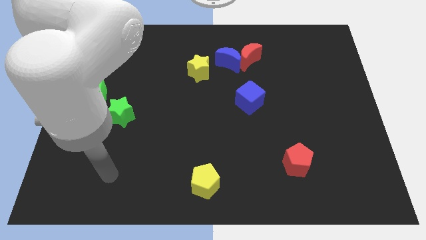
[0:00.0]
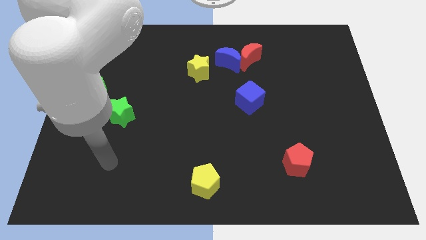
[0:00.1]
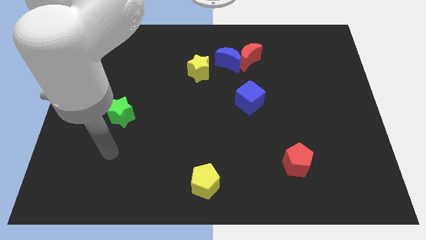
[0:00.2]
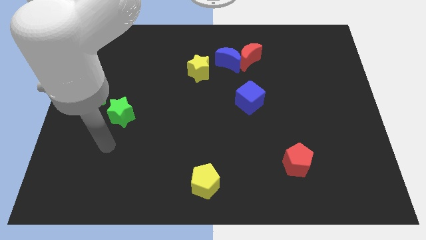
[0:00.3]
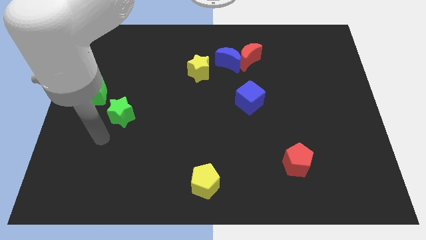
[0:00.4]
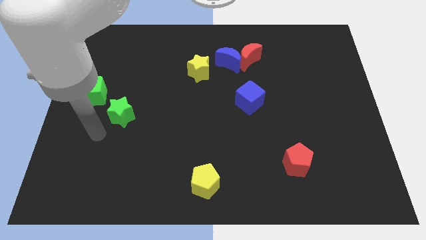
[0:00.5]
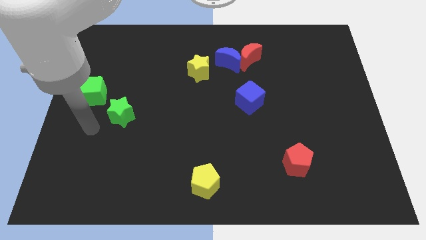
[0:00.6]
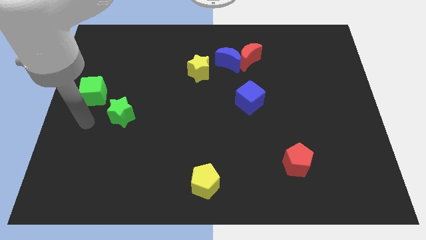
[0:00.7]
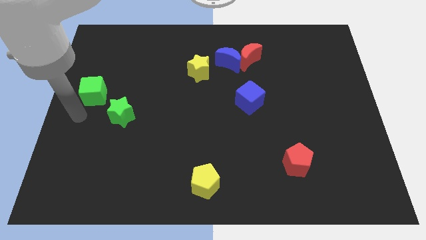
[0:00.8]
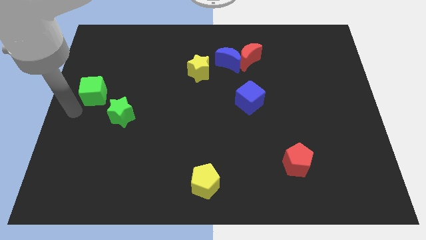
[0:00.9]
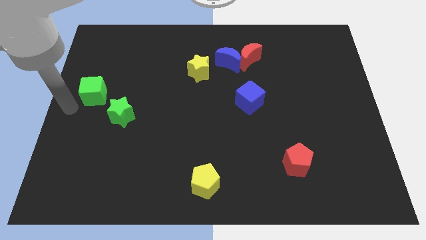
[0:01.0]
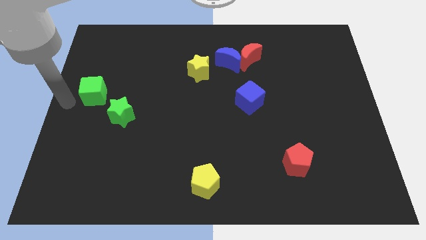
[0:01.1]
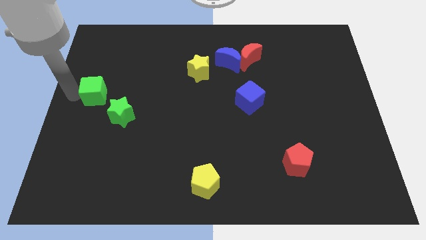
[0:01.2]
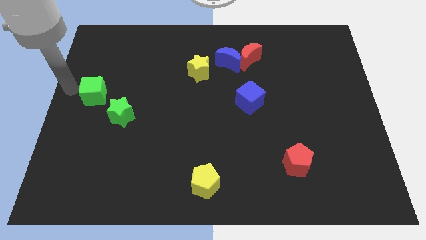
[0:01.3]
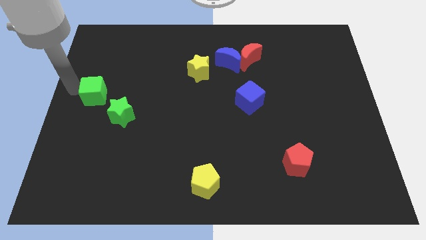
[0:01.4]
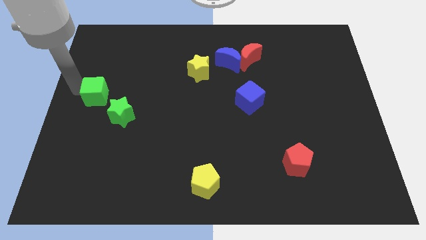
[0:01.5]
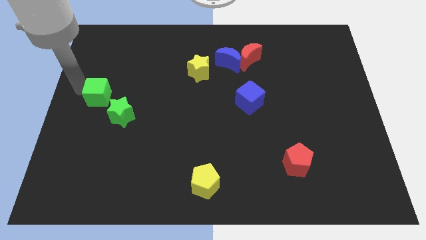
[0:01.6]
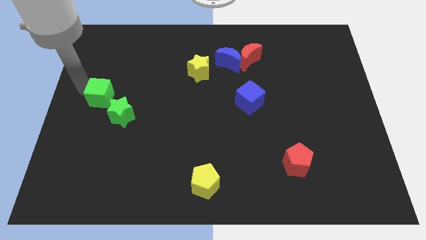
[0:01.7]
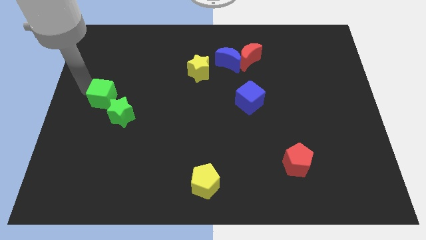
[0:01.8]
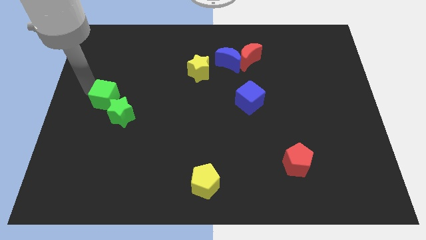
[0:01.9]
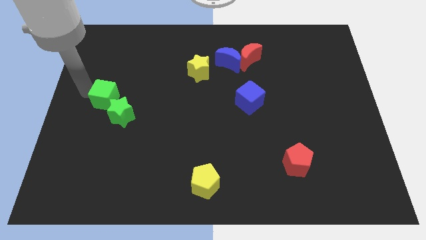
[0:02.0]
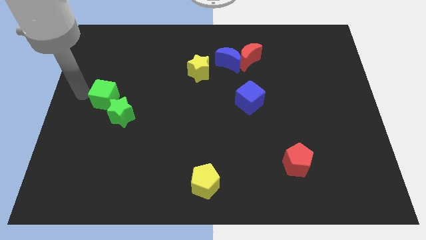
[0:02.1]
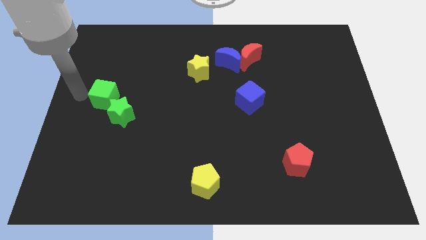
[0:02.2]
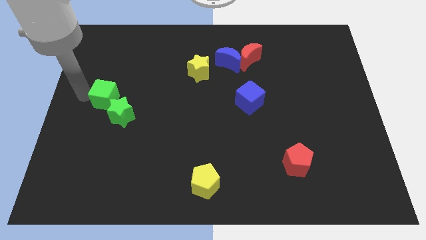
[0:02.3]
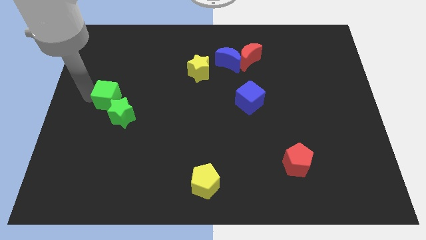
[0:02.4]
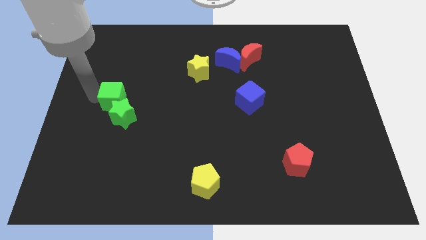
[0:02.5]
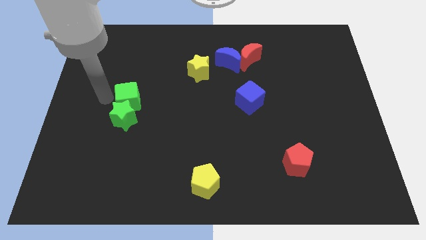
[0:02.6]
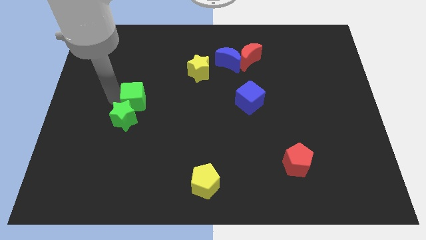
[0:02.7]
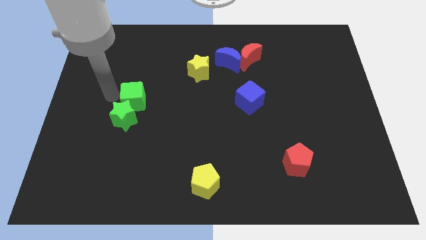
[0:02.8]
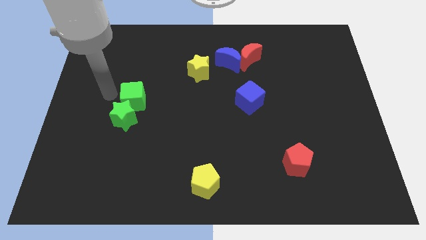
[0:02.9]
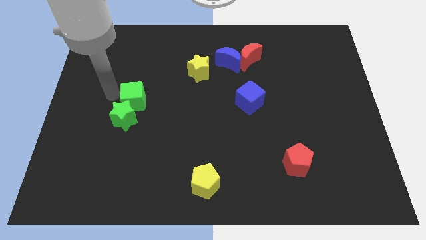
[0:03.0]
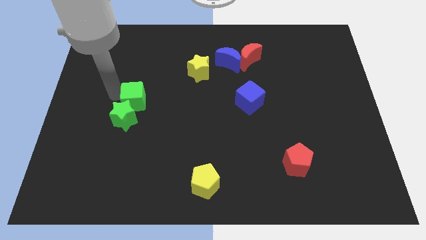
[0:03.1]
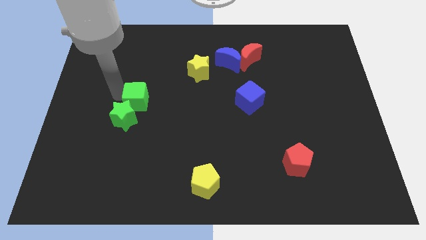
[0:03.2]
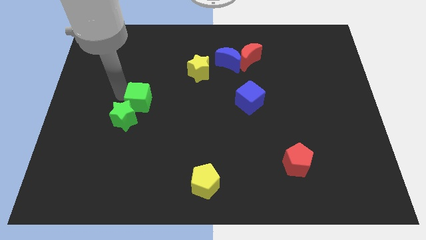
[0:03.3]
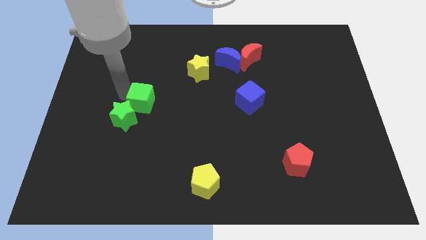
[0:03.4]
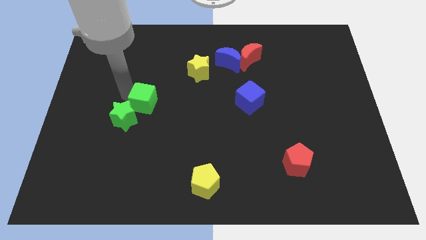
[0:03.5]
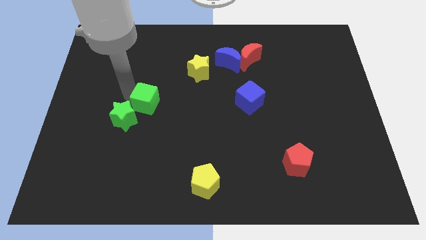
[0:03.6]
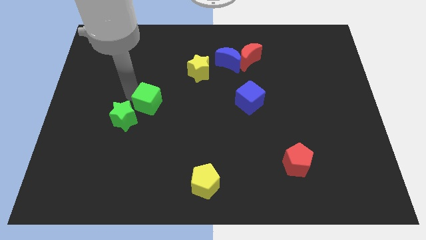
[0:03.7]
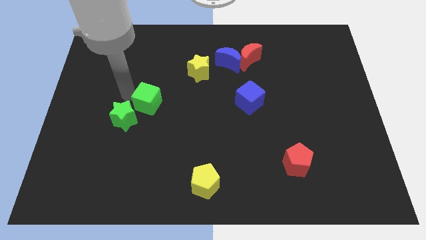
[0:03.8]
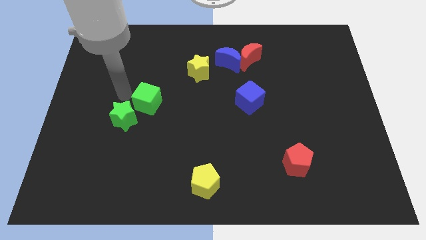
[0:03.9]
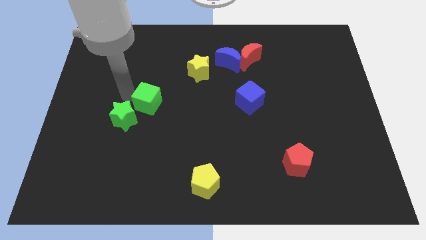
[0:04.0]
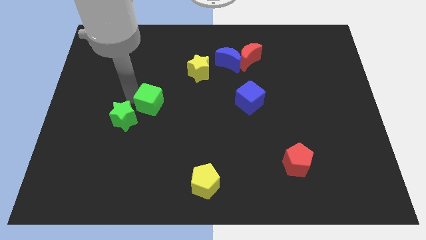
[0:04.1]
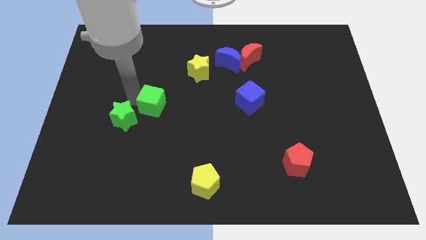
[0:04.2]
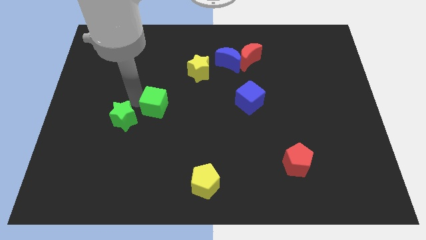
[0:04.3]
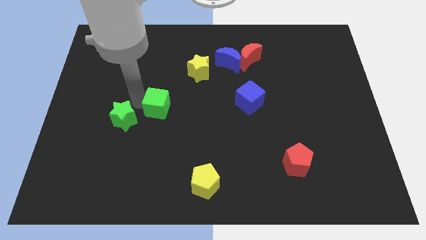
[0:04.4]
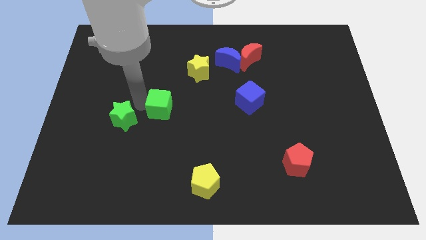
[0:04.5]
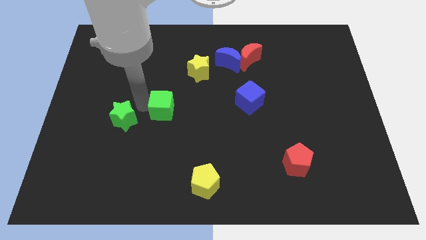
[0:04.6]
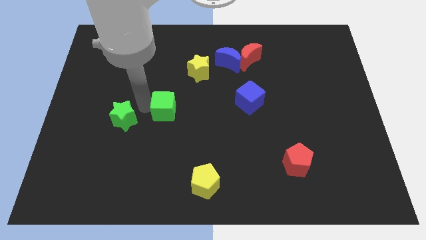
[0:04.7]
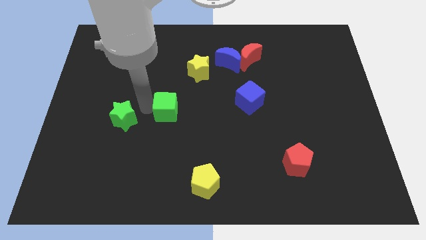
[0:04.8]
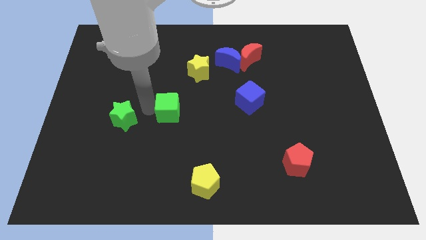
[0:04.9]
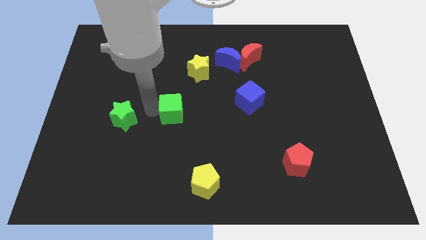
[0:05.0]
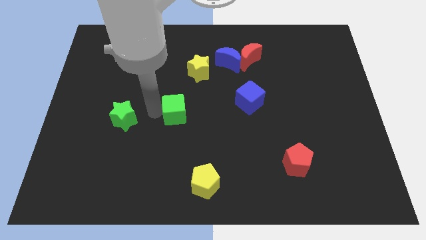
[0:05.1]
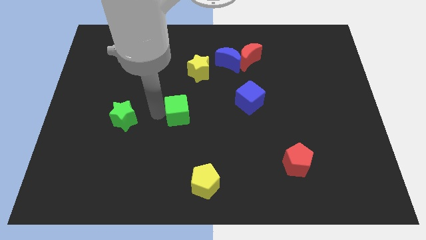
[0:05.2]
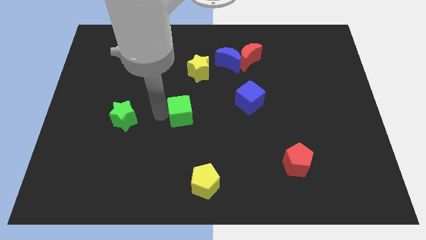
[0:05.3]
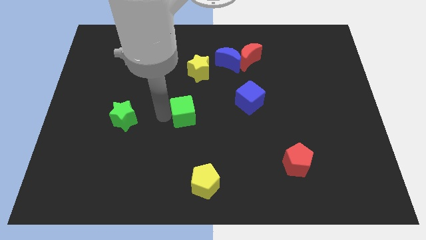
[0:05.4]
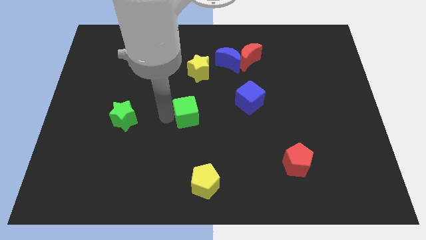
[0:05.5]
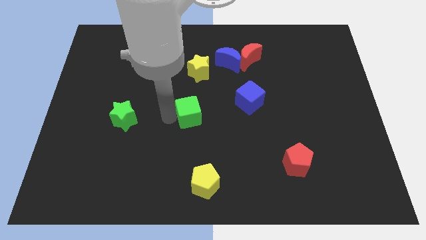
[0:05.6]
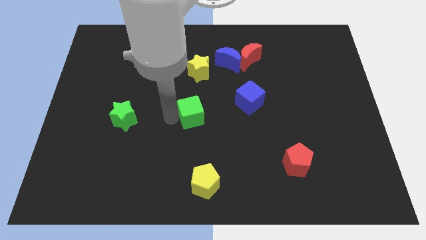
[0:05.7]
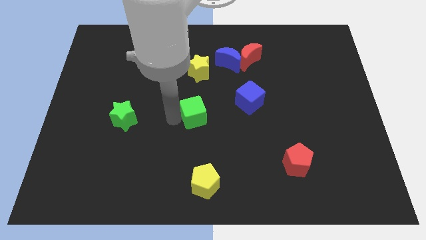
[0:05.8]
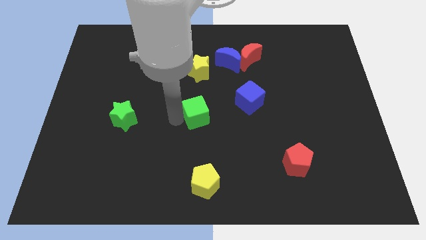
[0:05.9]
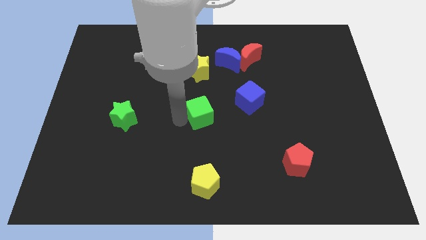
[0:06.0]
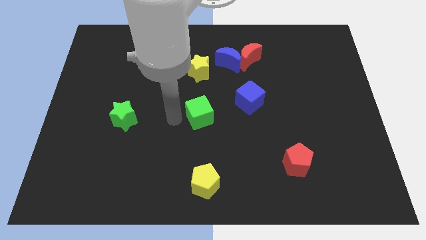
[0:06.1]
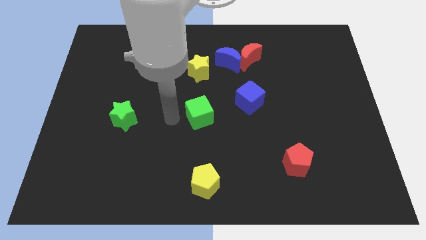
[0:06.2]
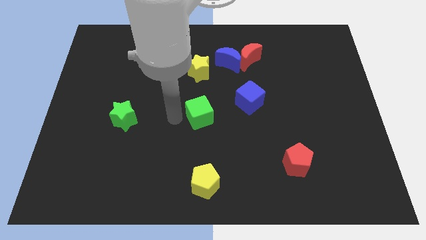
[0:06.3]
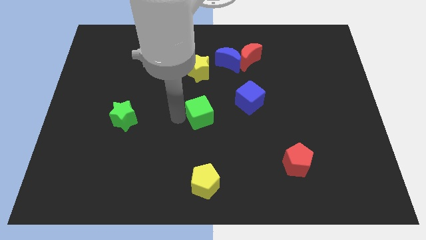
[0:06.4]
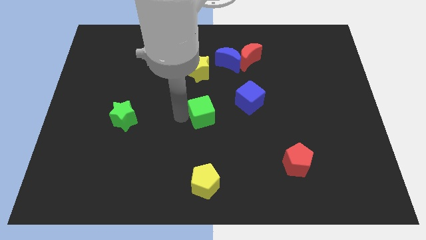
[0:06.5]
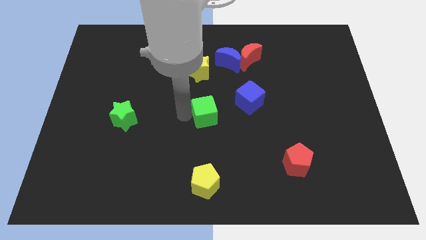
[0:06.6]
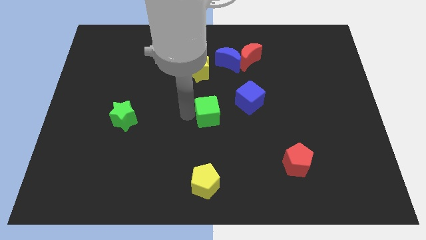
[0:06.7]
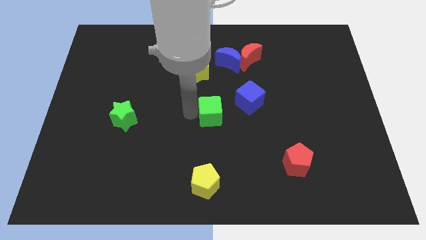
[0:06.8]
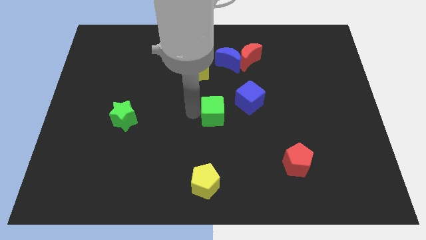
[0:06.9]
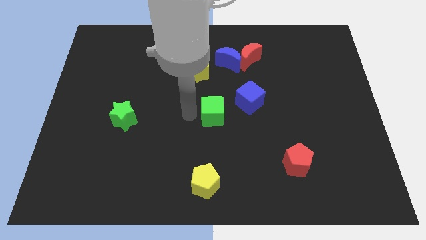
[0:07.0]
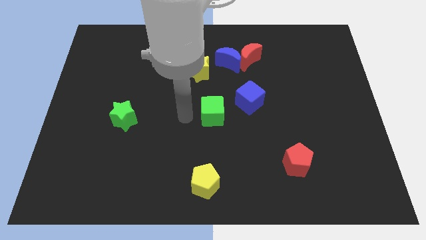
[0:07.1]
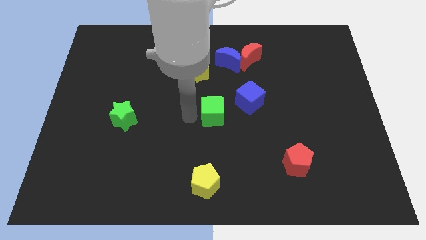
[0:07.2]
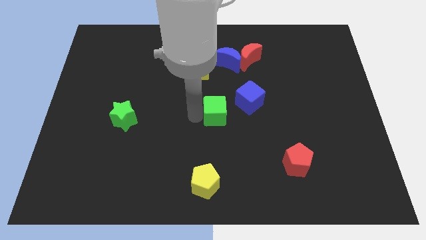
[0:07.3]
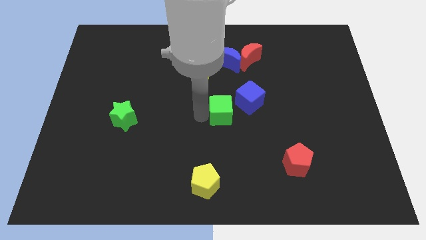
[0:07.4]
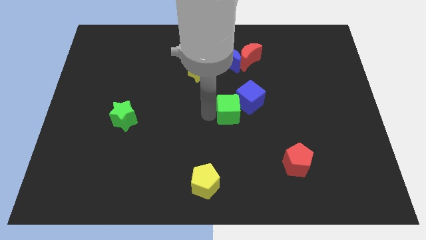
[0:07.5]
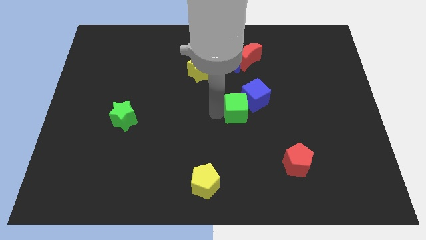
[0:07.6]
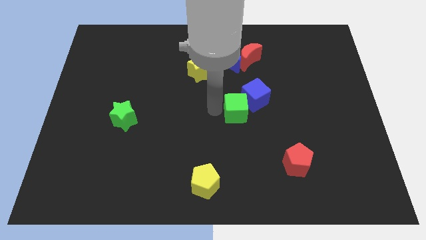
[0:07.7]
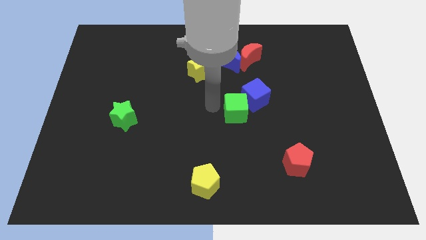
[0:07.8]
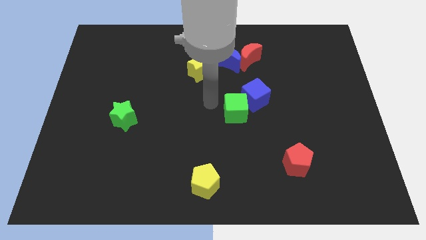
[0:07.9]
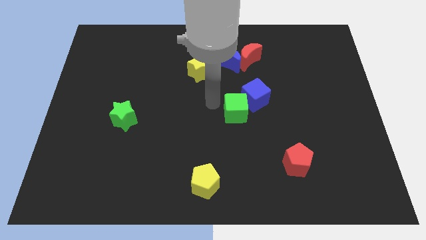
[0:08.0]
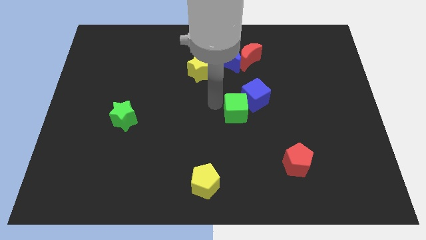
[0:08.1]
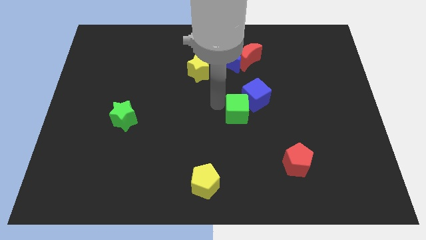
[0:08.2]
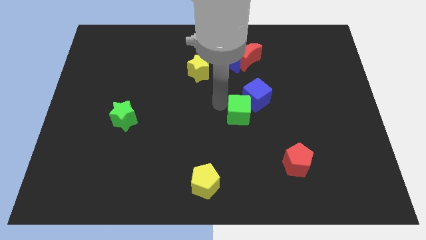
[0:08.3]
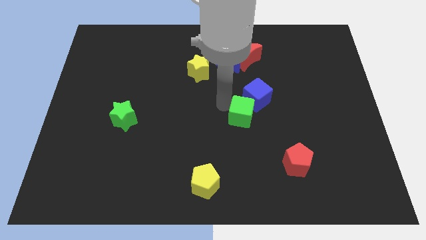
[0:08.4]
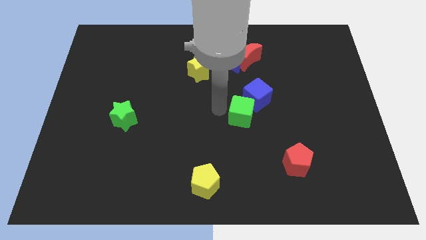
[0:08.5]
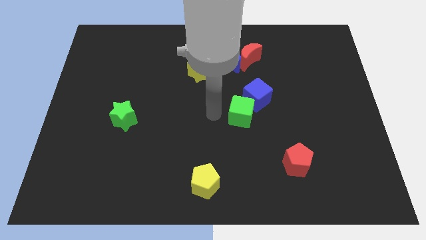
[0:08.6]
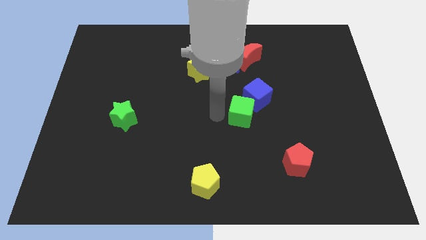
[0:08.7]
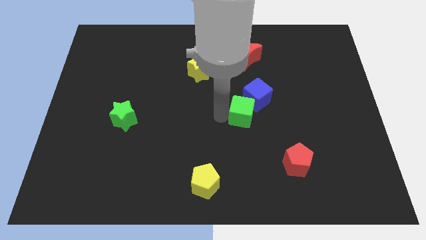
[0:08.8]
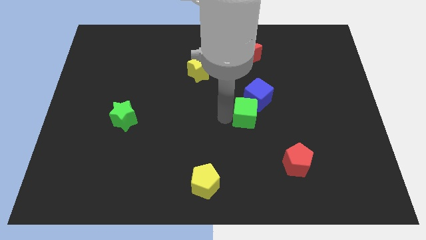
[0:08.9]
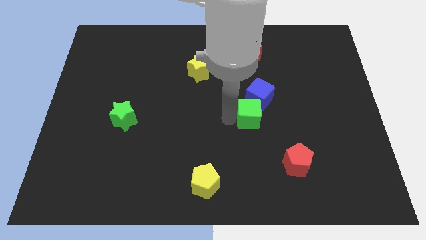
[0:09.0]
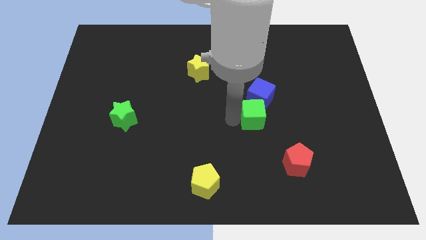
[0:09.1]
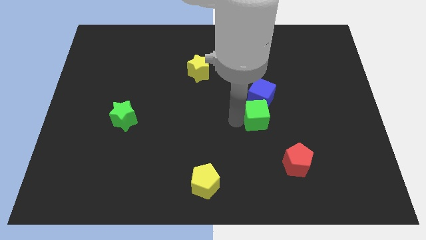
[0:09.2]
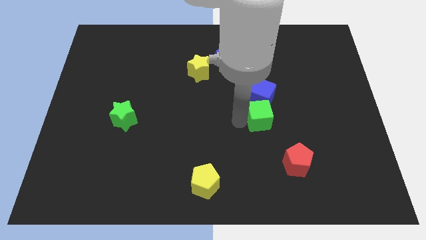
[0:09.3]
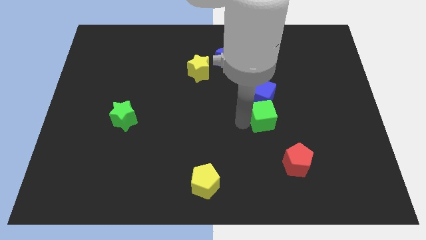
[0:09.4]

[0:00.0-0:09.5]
put the green cube to the bottom right of the blue cube
